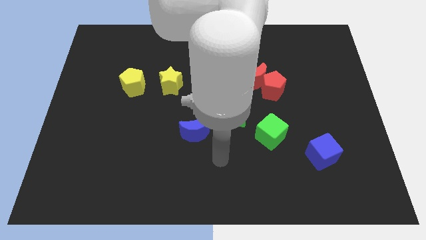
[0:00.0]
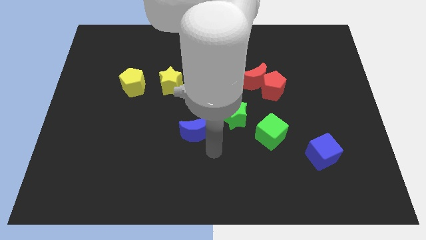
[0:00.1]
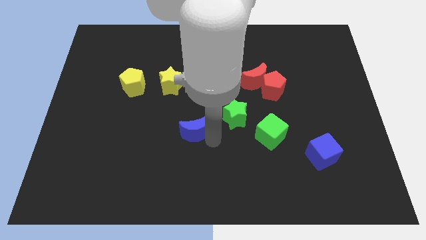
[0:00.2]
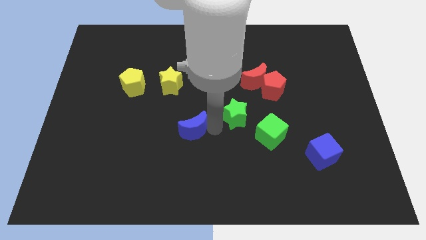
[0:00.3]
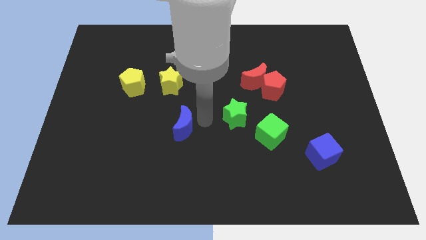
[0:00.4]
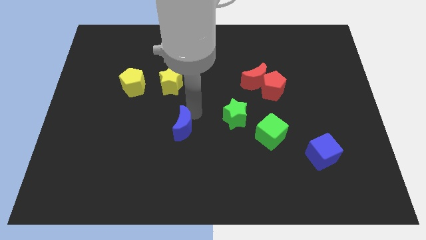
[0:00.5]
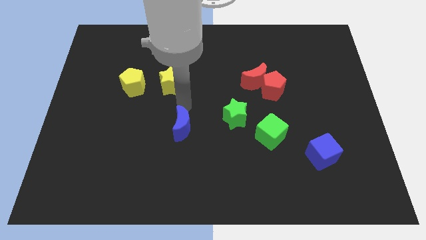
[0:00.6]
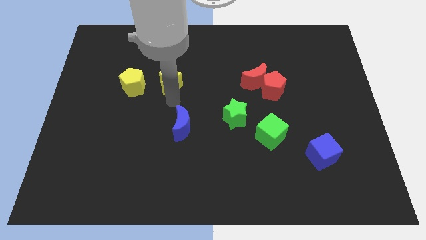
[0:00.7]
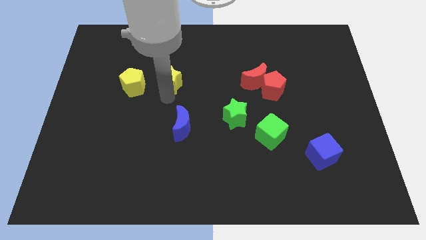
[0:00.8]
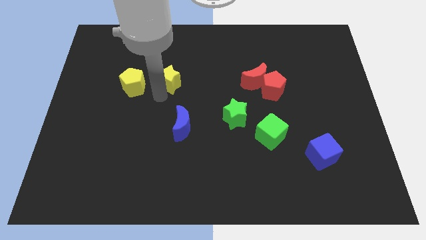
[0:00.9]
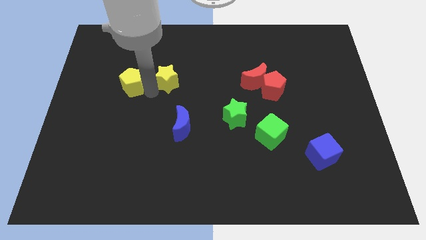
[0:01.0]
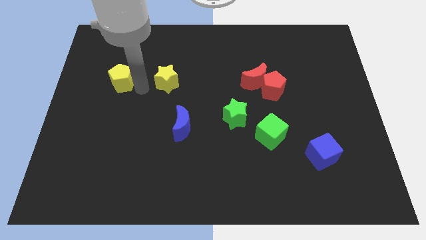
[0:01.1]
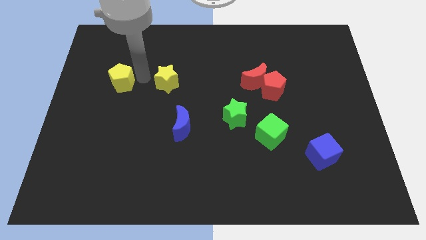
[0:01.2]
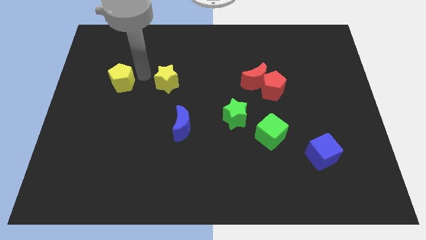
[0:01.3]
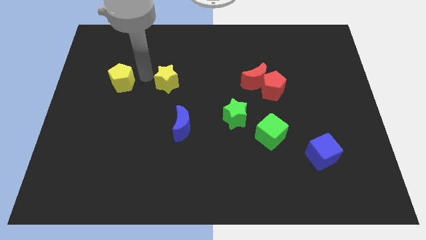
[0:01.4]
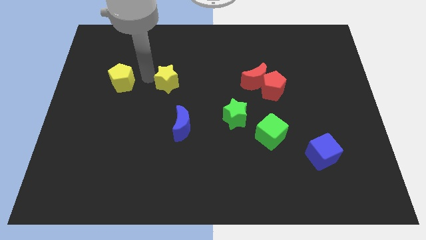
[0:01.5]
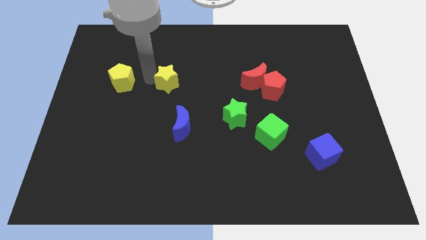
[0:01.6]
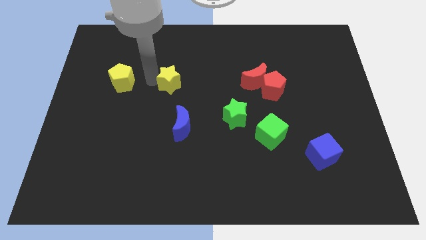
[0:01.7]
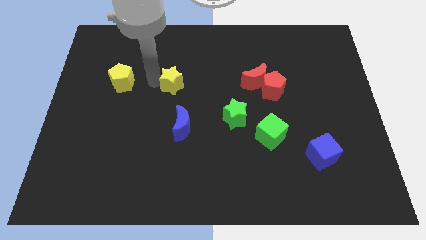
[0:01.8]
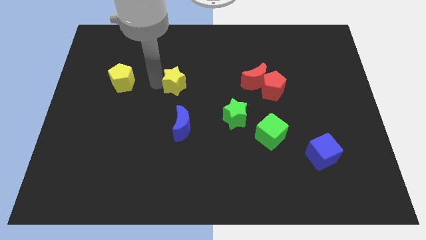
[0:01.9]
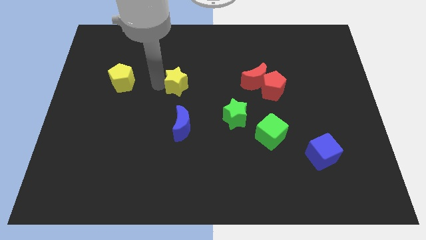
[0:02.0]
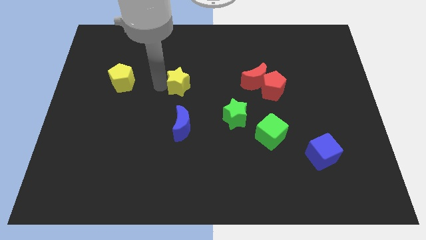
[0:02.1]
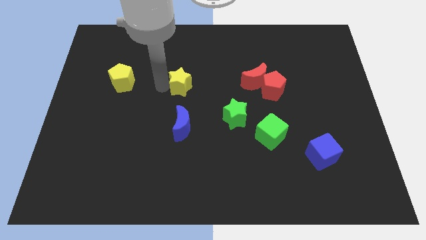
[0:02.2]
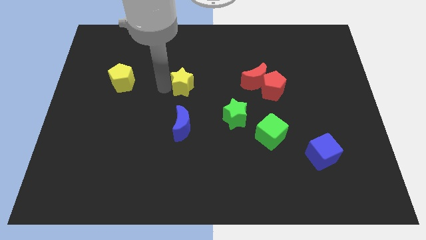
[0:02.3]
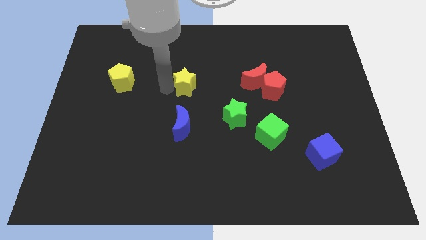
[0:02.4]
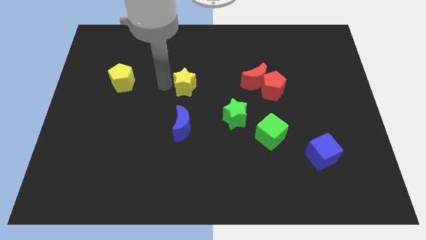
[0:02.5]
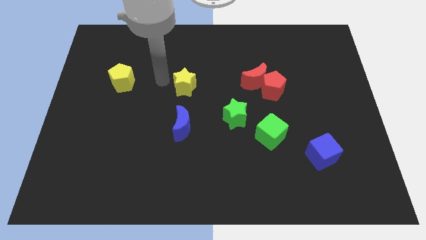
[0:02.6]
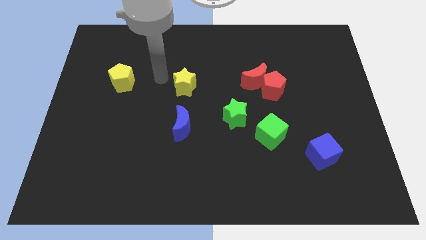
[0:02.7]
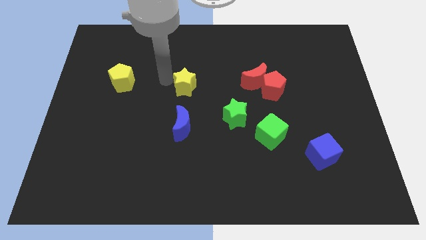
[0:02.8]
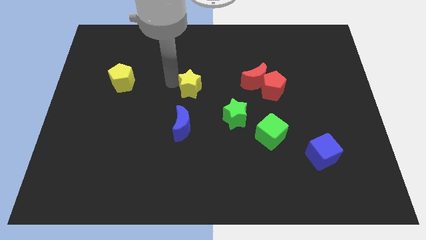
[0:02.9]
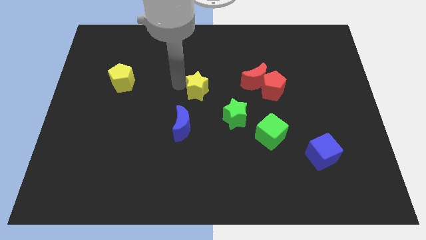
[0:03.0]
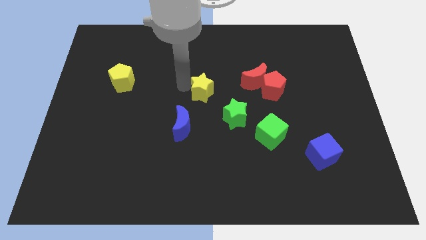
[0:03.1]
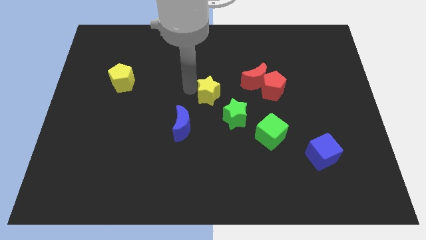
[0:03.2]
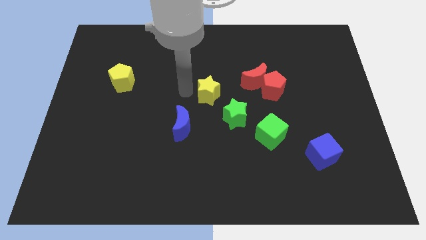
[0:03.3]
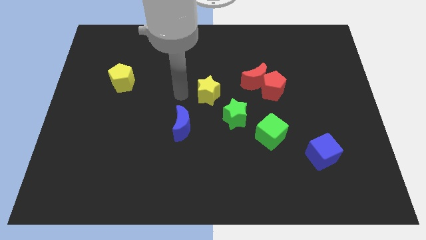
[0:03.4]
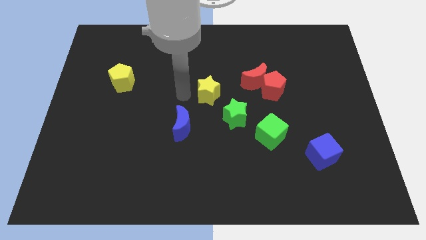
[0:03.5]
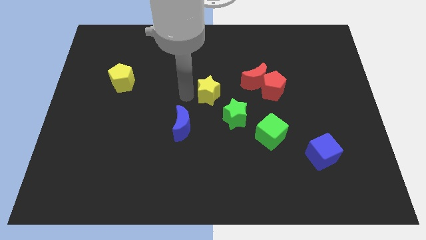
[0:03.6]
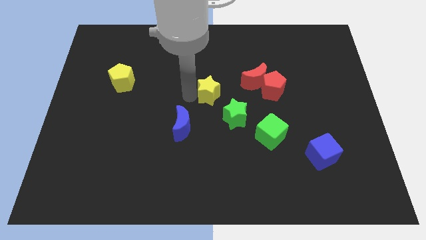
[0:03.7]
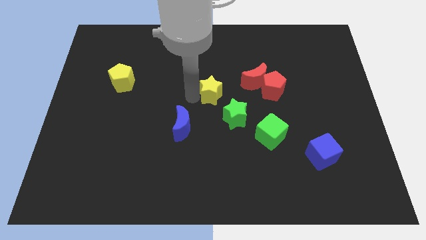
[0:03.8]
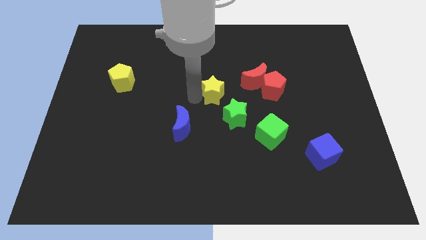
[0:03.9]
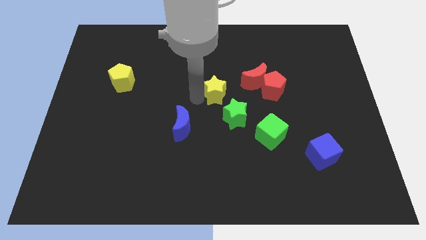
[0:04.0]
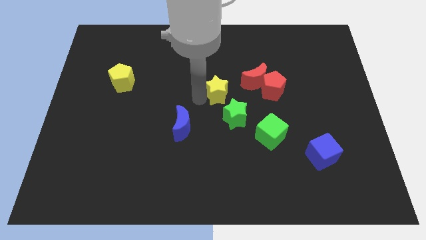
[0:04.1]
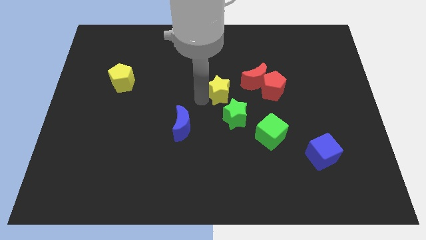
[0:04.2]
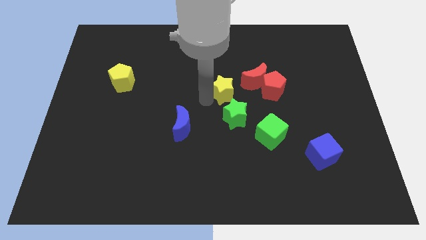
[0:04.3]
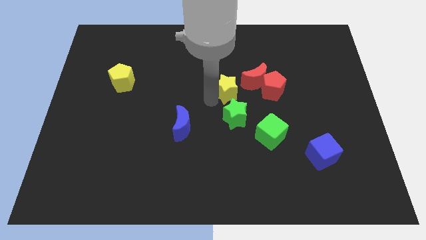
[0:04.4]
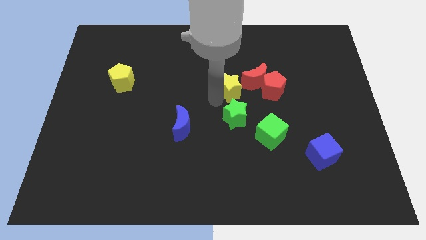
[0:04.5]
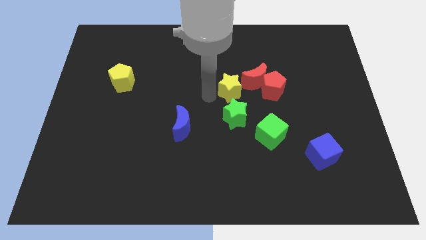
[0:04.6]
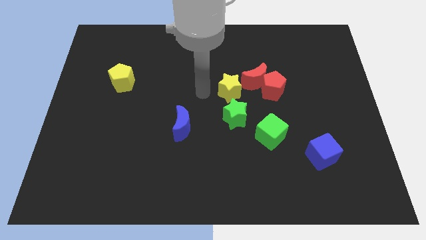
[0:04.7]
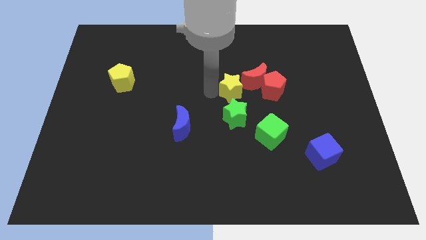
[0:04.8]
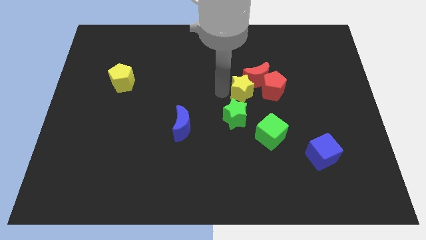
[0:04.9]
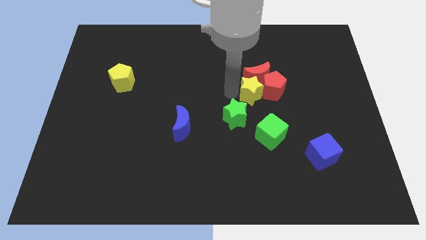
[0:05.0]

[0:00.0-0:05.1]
move the yellow star close to the red pentagon

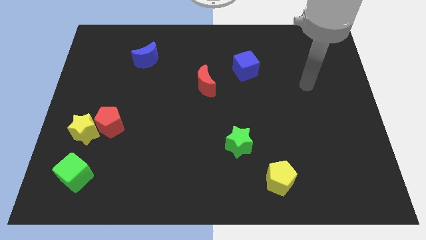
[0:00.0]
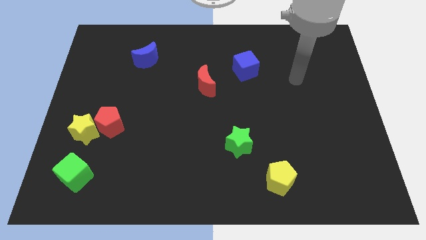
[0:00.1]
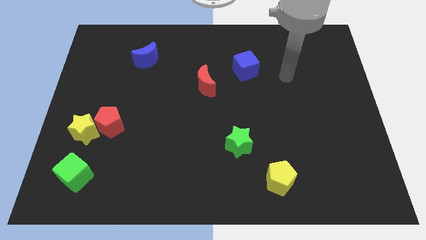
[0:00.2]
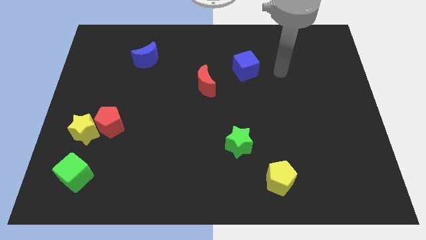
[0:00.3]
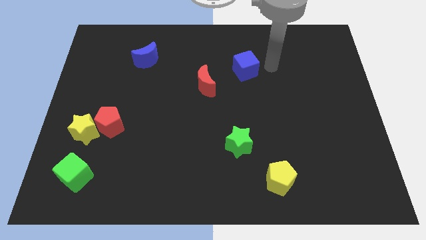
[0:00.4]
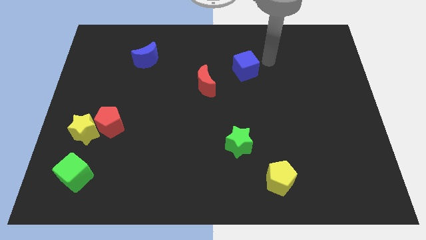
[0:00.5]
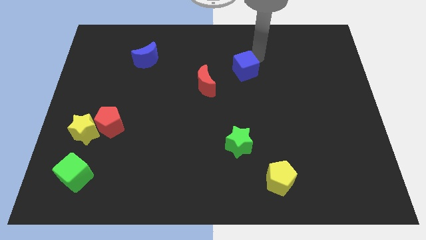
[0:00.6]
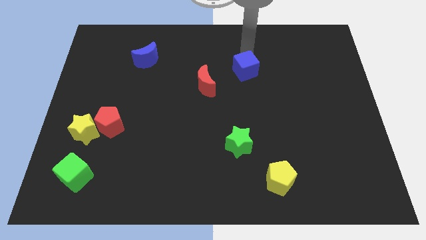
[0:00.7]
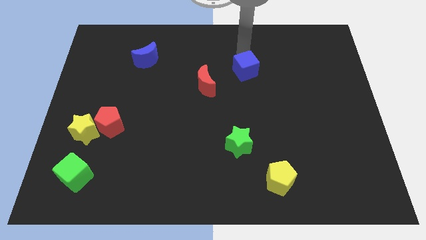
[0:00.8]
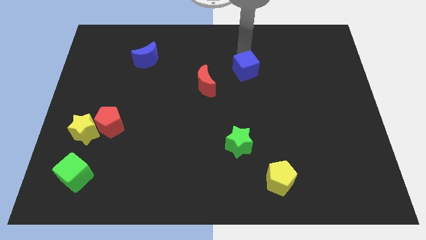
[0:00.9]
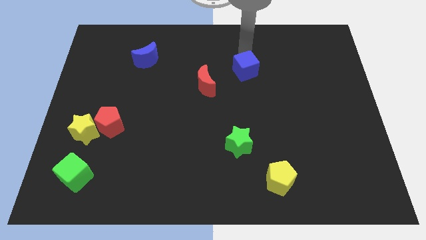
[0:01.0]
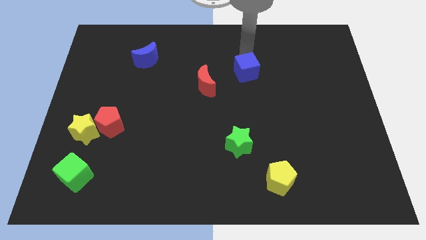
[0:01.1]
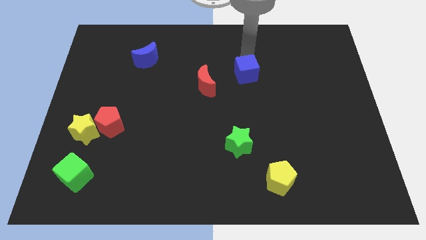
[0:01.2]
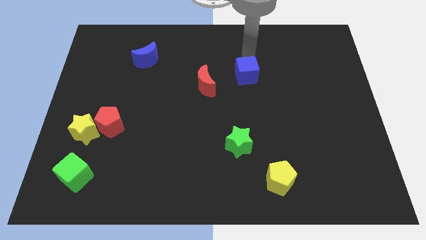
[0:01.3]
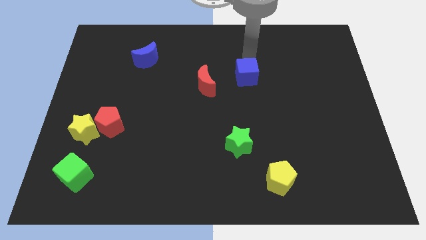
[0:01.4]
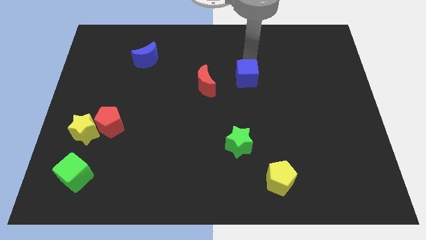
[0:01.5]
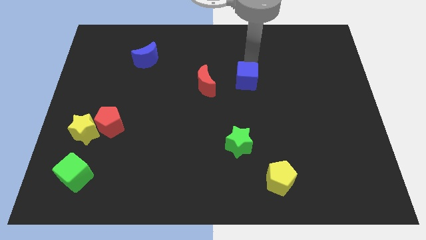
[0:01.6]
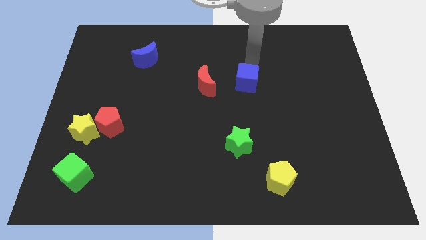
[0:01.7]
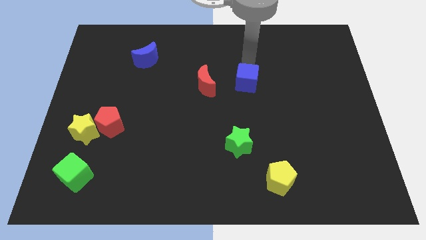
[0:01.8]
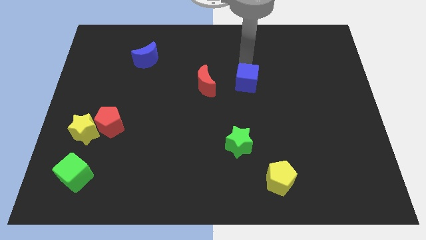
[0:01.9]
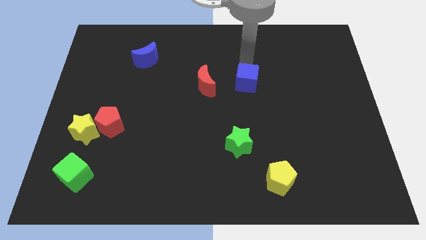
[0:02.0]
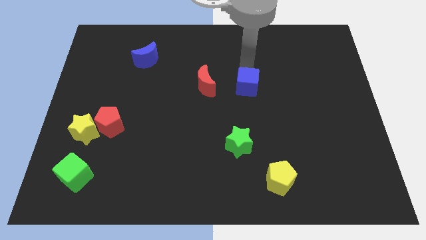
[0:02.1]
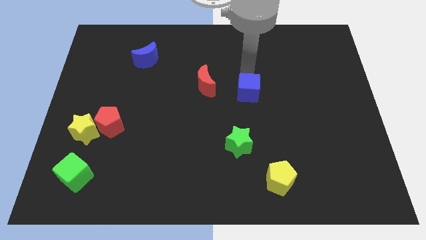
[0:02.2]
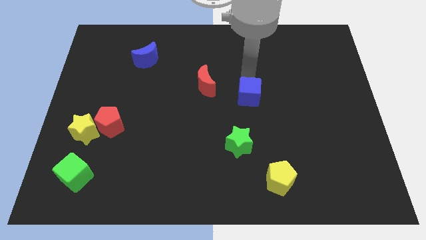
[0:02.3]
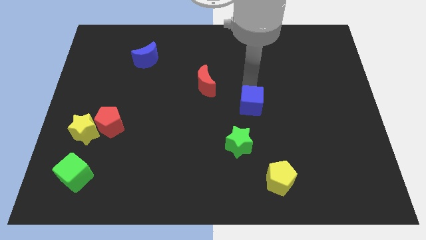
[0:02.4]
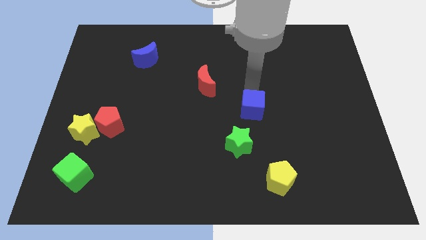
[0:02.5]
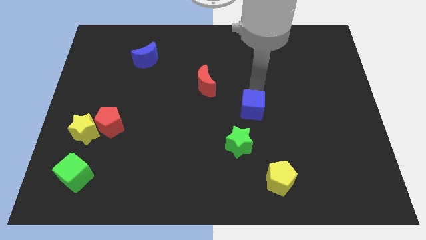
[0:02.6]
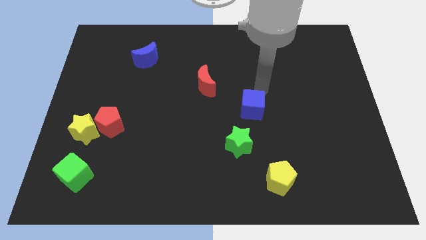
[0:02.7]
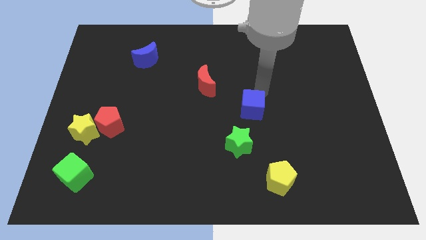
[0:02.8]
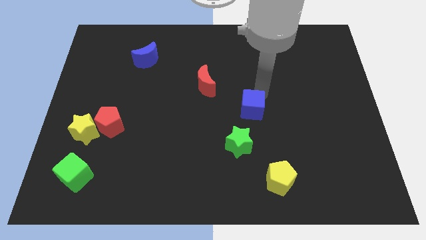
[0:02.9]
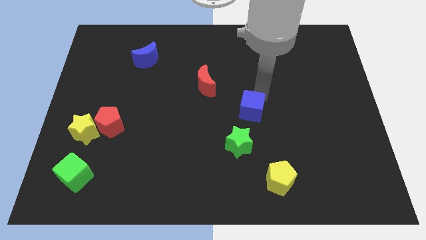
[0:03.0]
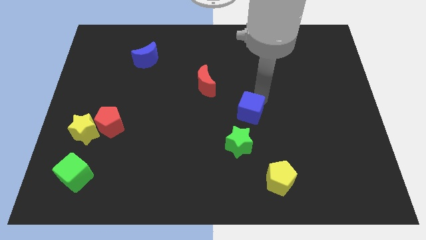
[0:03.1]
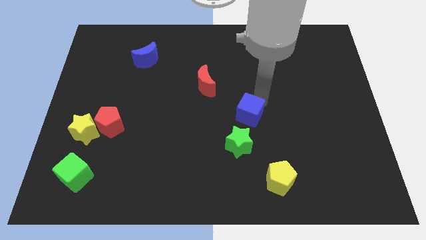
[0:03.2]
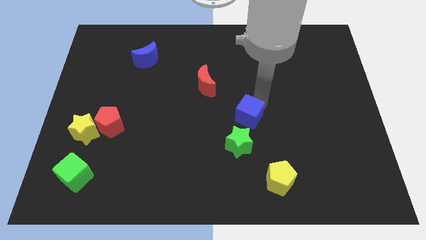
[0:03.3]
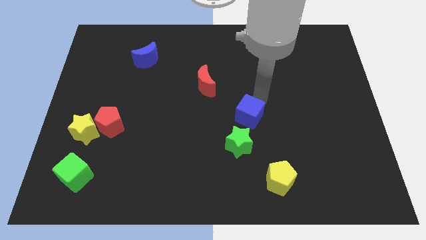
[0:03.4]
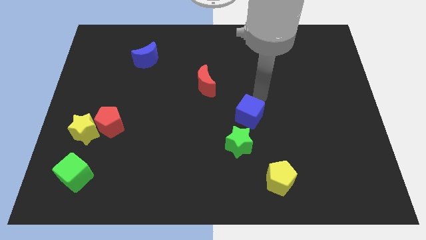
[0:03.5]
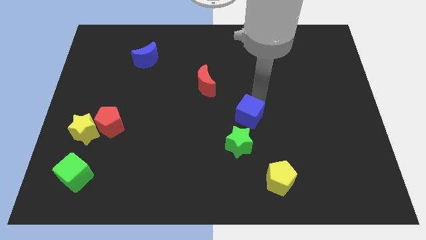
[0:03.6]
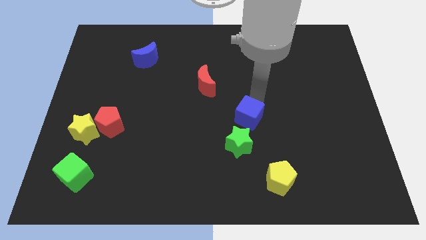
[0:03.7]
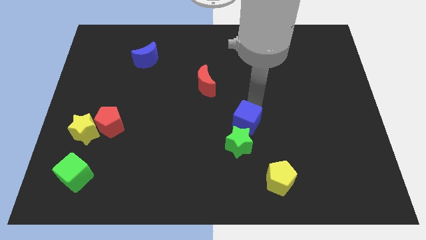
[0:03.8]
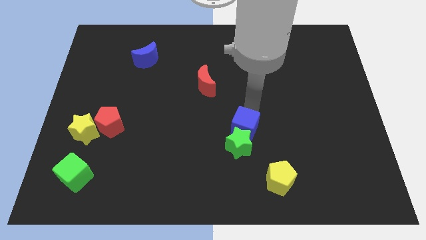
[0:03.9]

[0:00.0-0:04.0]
move the blue cube to the green star
